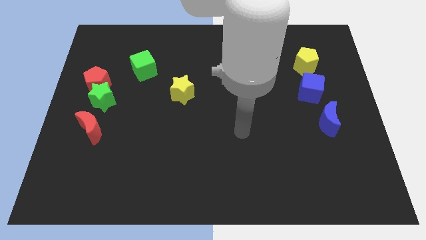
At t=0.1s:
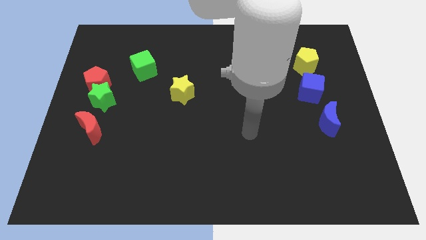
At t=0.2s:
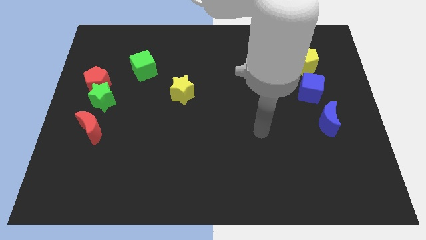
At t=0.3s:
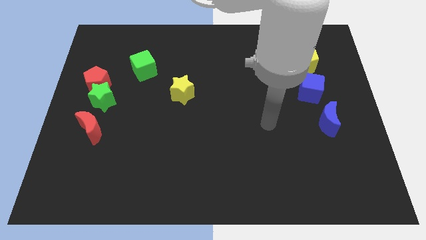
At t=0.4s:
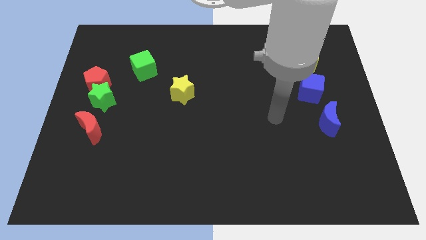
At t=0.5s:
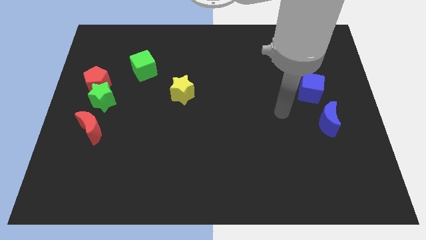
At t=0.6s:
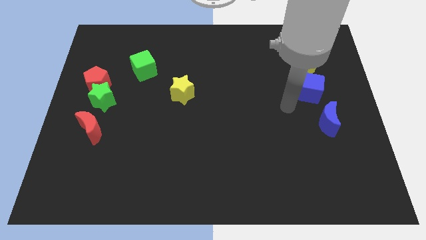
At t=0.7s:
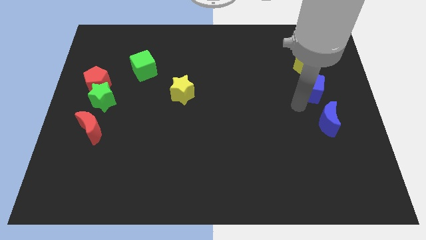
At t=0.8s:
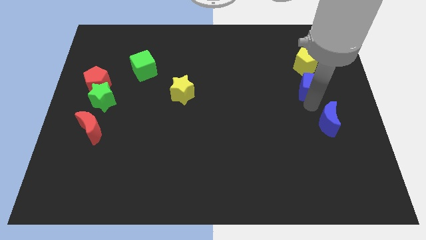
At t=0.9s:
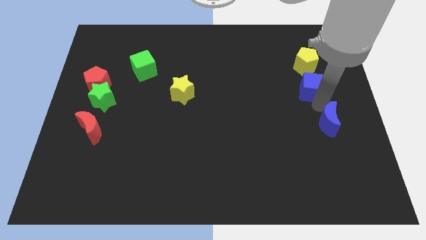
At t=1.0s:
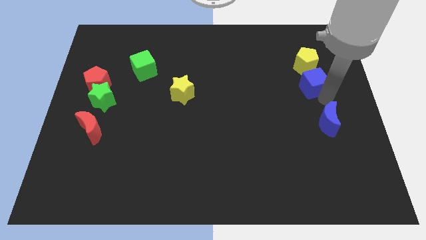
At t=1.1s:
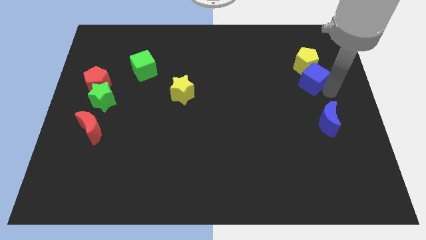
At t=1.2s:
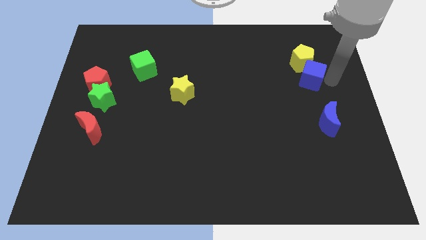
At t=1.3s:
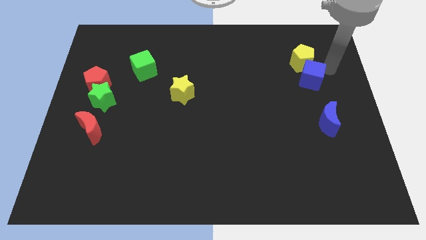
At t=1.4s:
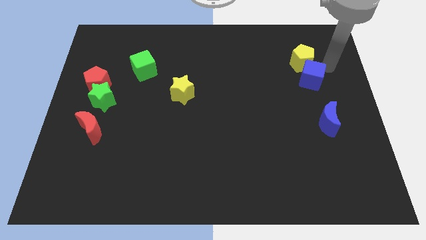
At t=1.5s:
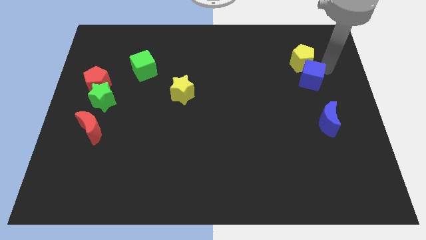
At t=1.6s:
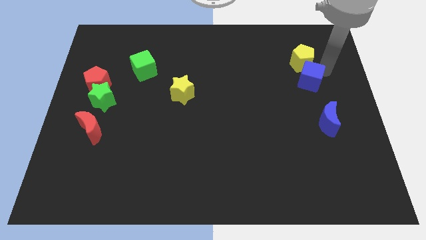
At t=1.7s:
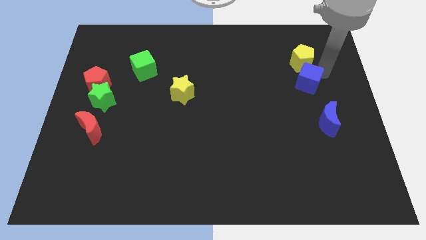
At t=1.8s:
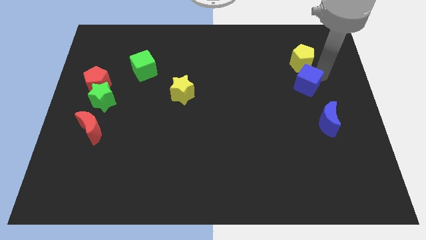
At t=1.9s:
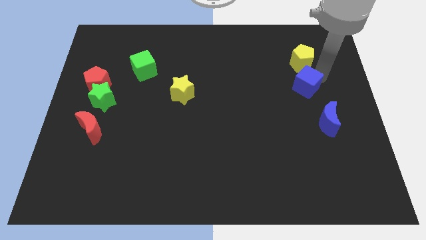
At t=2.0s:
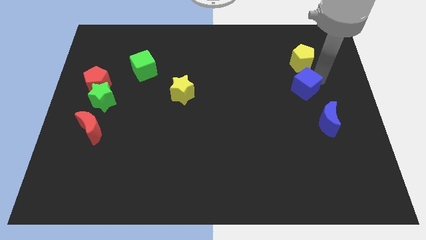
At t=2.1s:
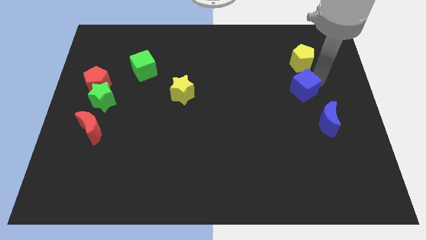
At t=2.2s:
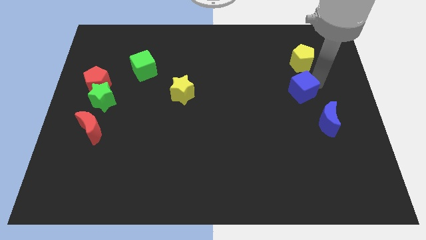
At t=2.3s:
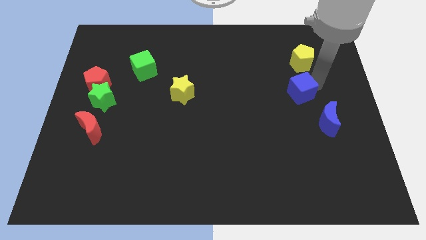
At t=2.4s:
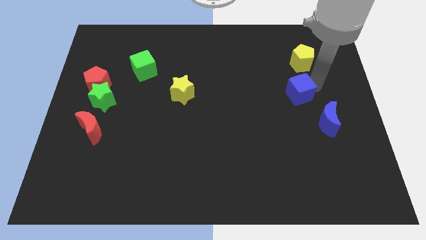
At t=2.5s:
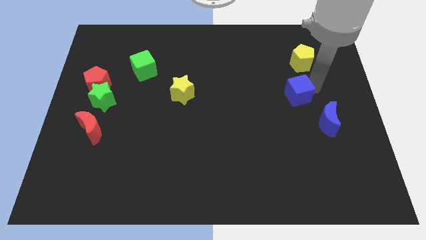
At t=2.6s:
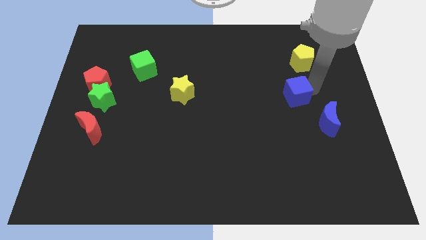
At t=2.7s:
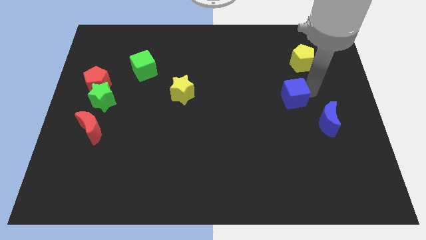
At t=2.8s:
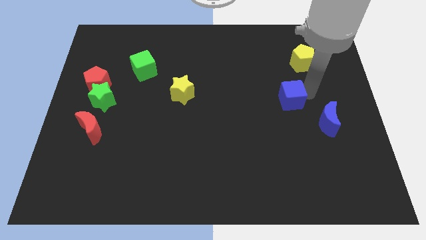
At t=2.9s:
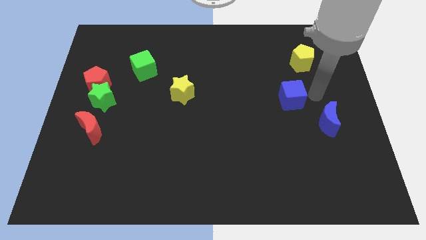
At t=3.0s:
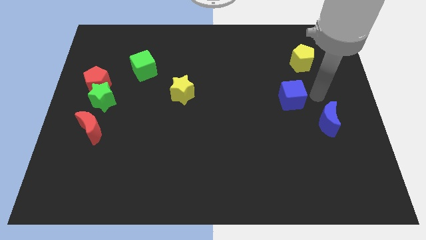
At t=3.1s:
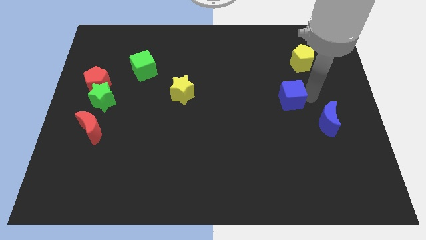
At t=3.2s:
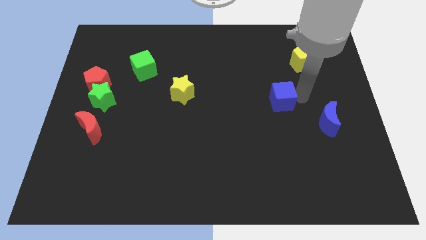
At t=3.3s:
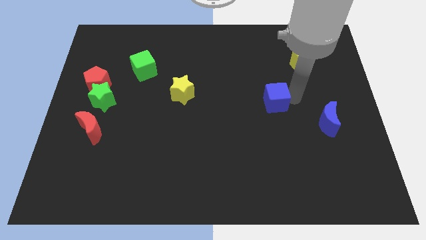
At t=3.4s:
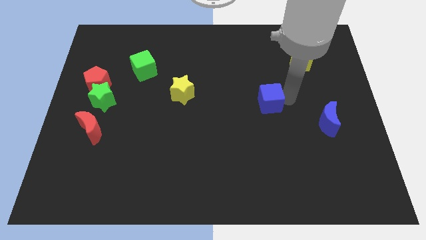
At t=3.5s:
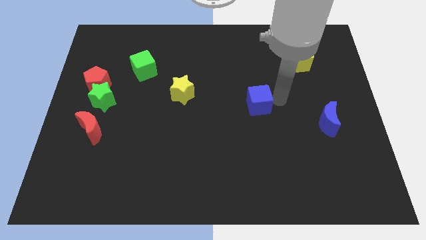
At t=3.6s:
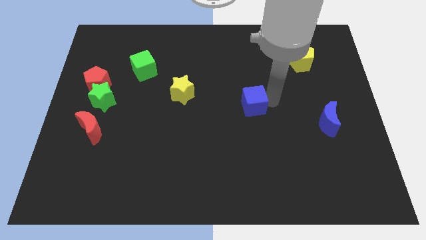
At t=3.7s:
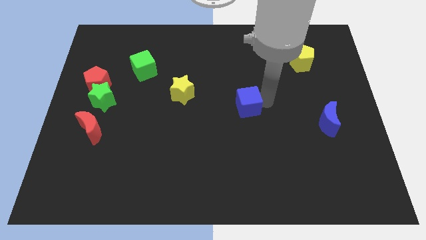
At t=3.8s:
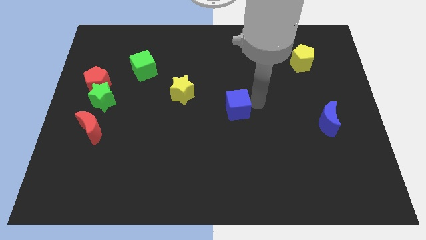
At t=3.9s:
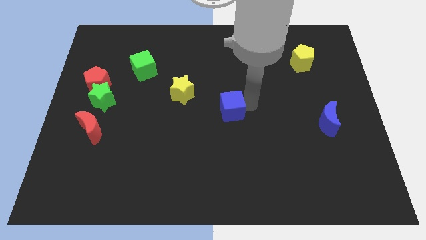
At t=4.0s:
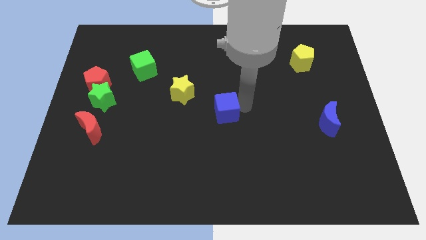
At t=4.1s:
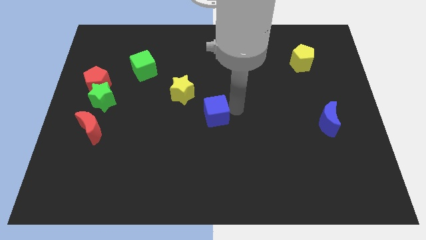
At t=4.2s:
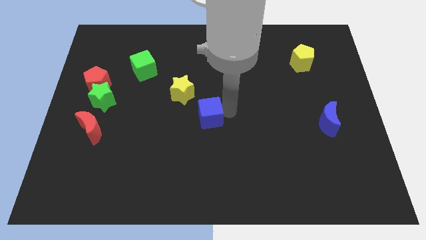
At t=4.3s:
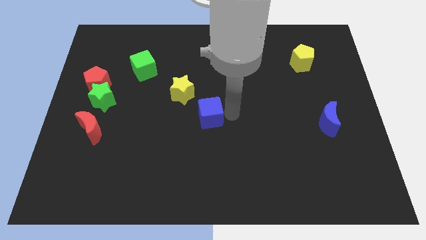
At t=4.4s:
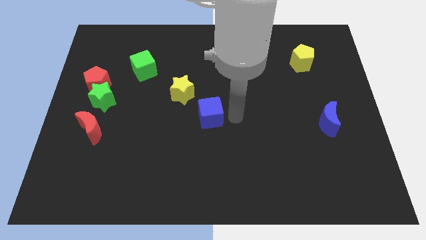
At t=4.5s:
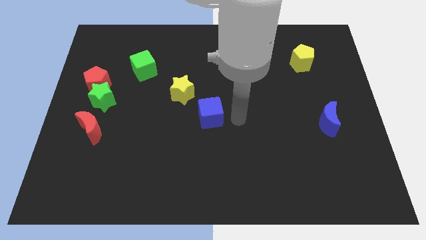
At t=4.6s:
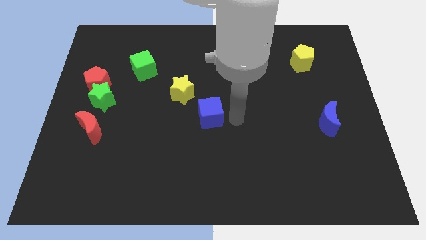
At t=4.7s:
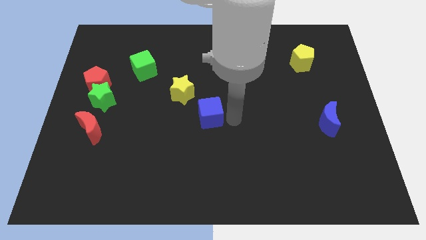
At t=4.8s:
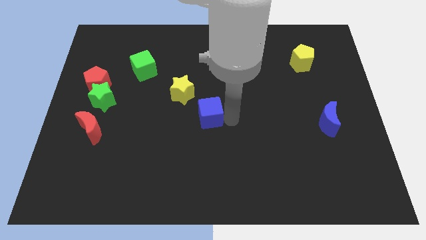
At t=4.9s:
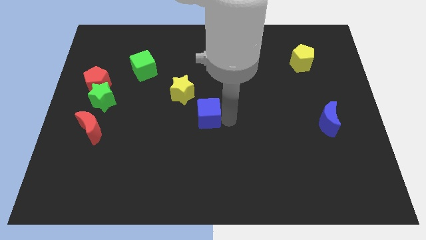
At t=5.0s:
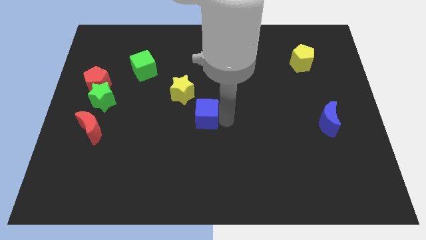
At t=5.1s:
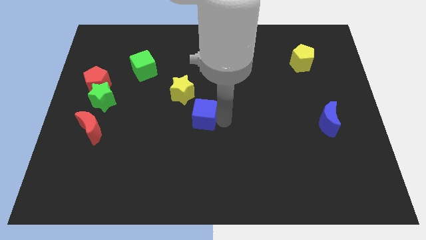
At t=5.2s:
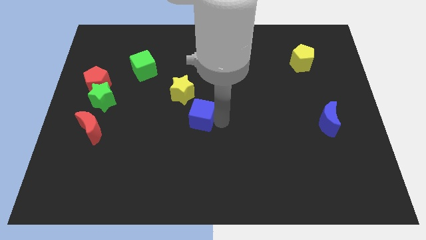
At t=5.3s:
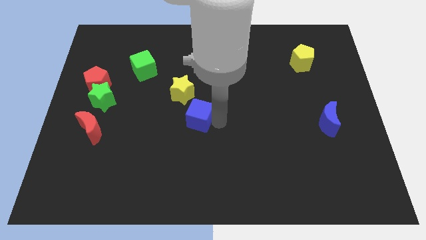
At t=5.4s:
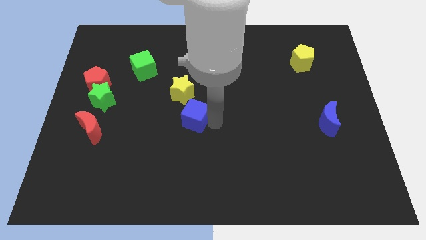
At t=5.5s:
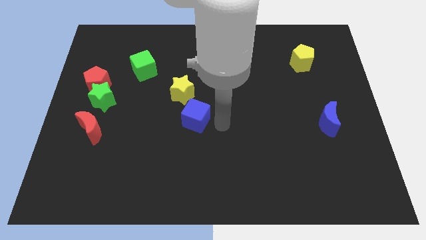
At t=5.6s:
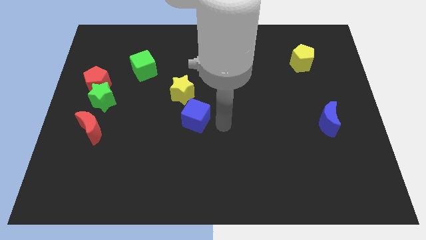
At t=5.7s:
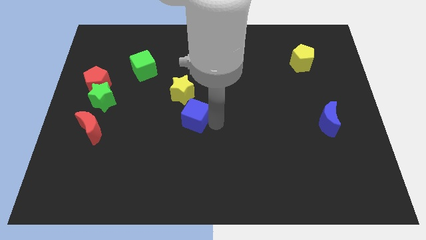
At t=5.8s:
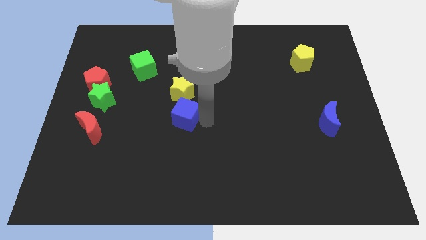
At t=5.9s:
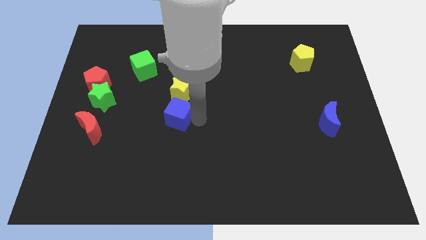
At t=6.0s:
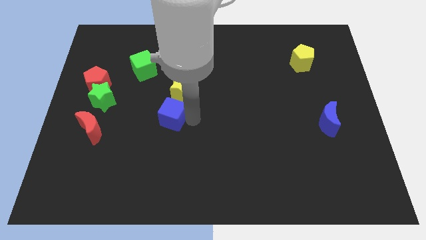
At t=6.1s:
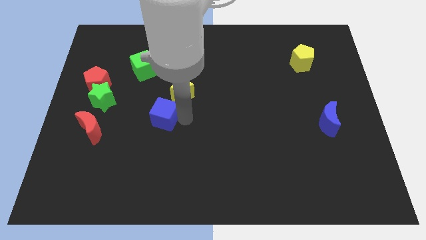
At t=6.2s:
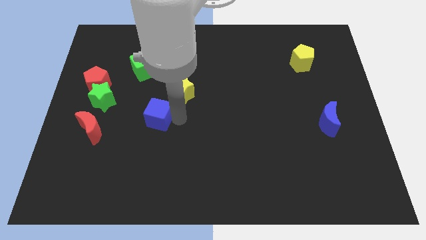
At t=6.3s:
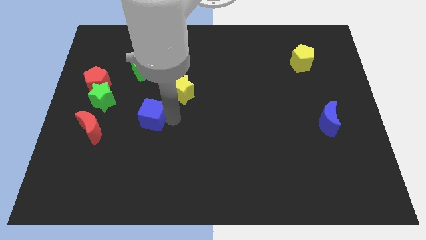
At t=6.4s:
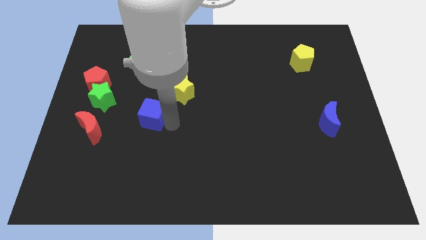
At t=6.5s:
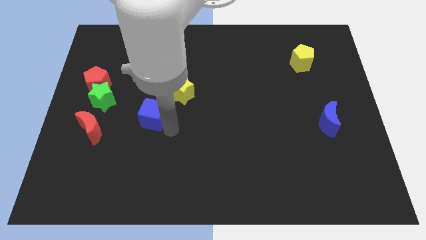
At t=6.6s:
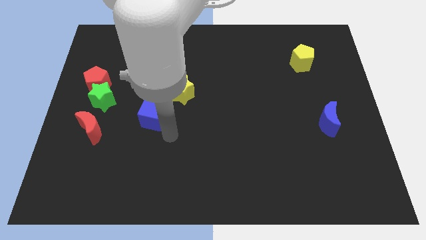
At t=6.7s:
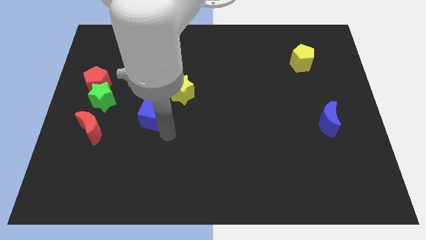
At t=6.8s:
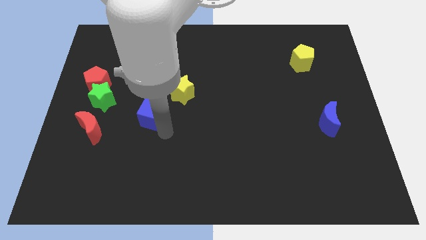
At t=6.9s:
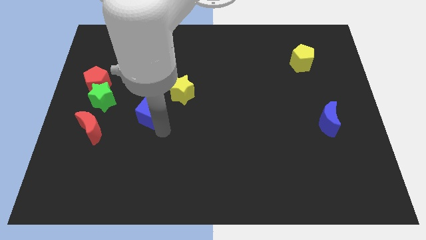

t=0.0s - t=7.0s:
slide the blue cube below the green cube

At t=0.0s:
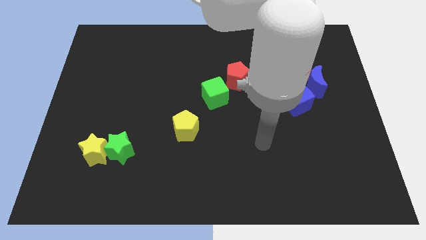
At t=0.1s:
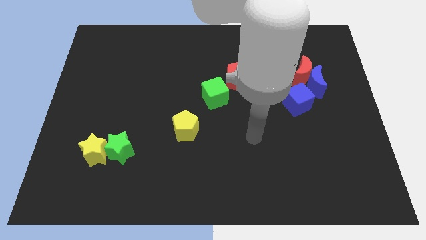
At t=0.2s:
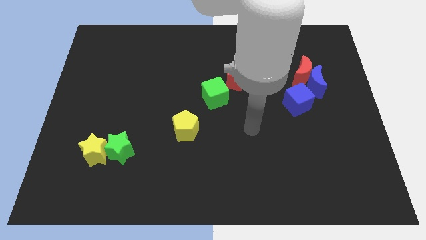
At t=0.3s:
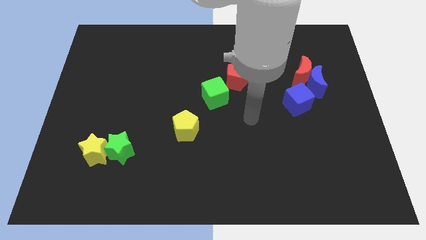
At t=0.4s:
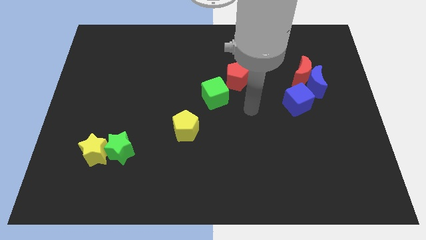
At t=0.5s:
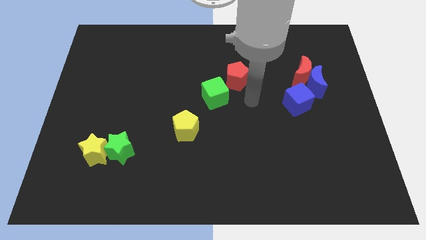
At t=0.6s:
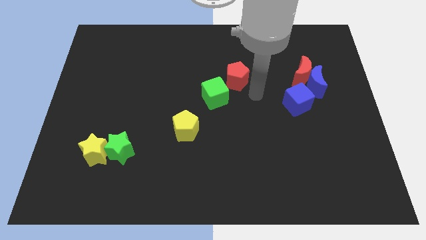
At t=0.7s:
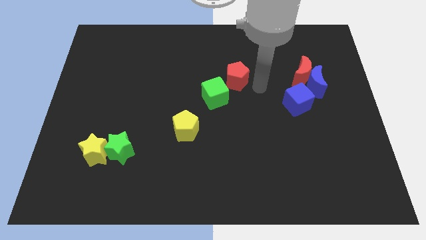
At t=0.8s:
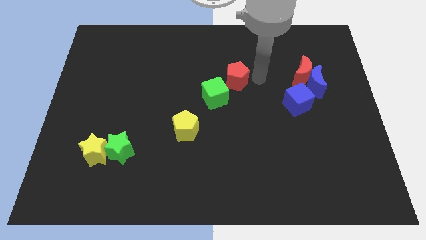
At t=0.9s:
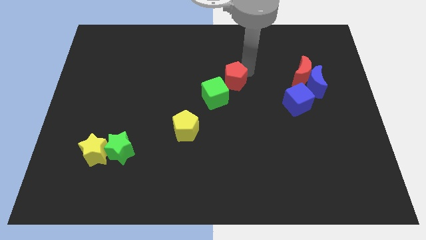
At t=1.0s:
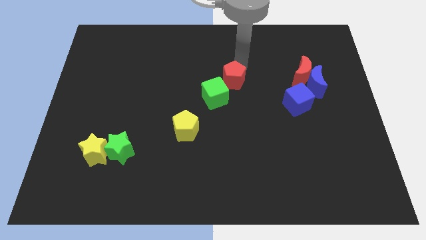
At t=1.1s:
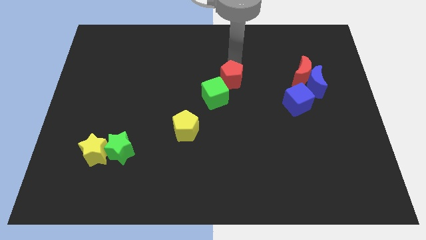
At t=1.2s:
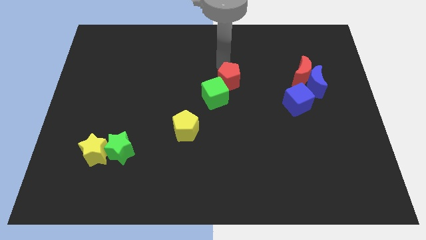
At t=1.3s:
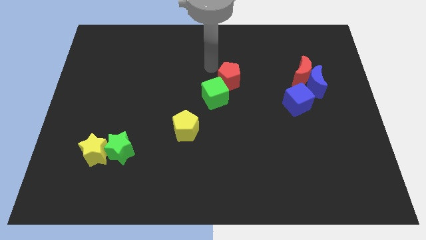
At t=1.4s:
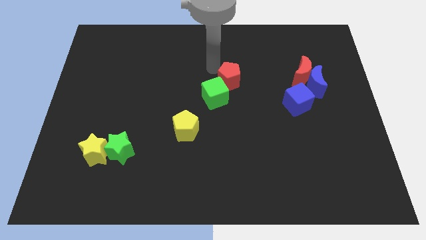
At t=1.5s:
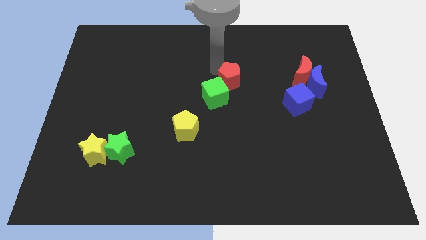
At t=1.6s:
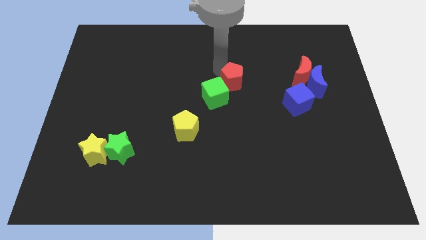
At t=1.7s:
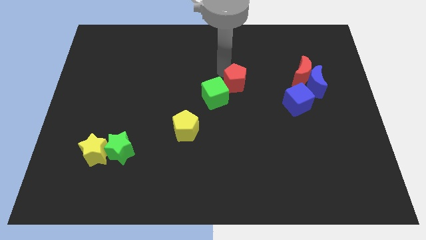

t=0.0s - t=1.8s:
push the red pentagon just right of the green cube
